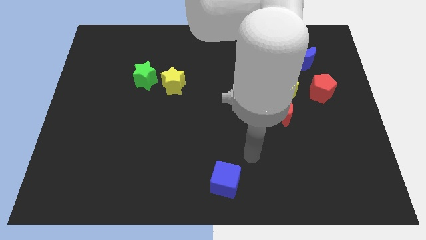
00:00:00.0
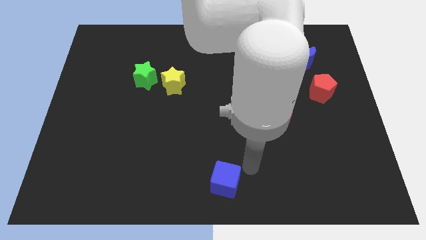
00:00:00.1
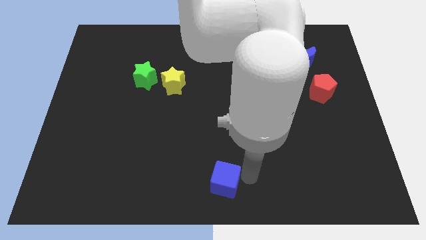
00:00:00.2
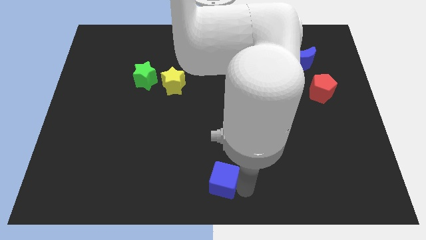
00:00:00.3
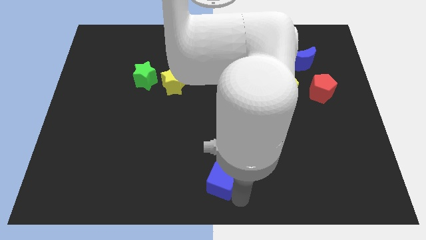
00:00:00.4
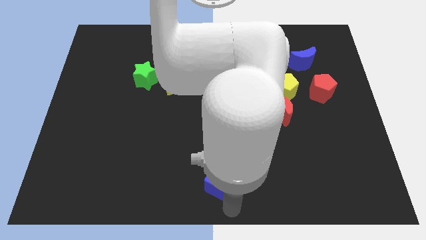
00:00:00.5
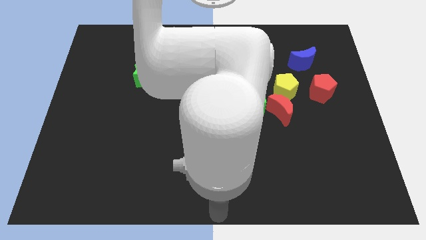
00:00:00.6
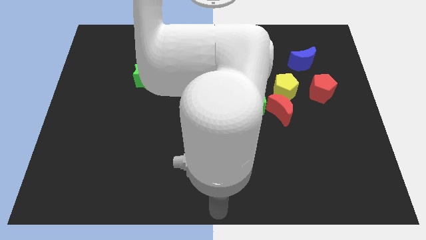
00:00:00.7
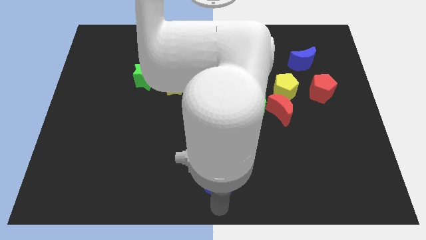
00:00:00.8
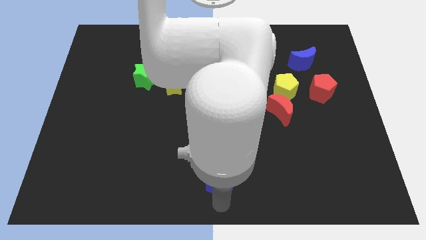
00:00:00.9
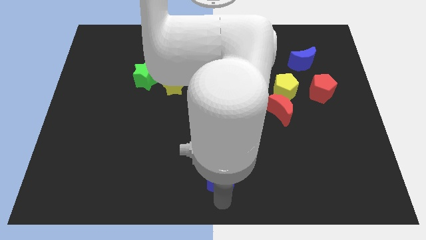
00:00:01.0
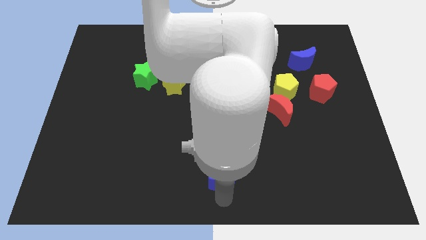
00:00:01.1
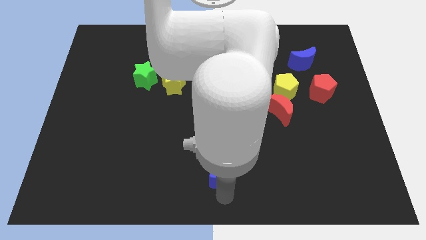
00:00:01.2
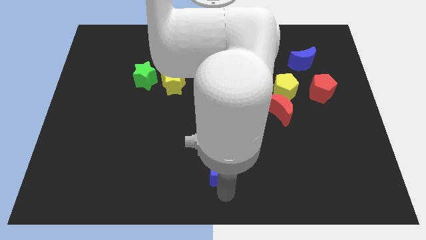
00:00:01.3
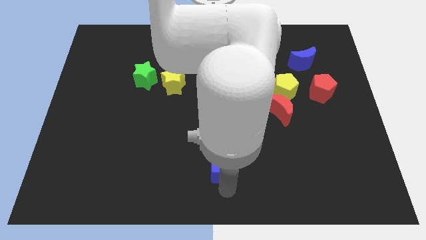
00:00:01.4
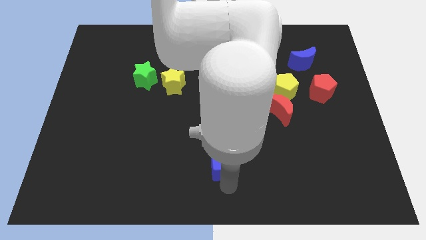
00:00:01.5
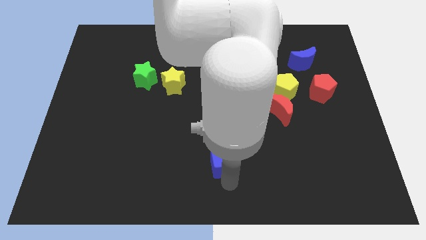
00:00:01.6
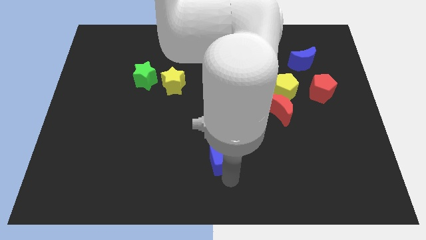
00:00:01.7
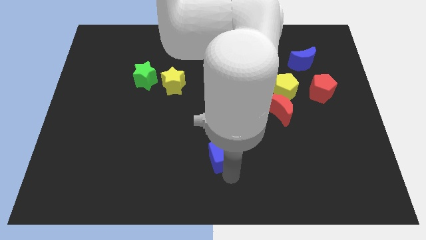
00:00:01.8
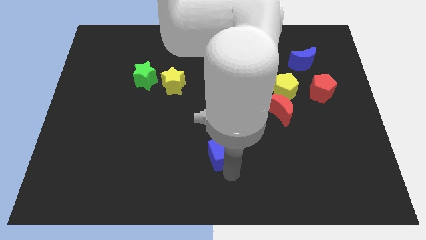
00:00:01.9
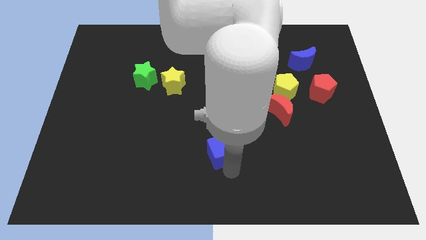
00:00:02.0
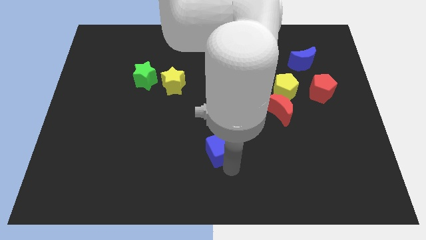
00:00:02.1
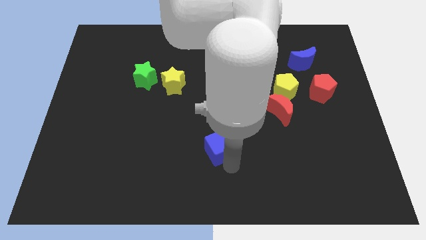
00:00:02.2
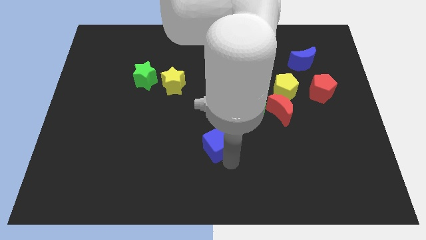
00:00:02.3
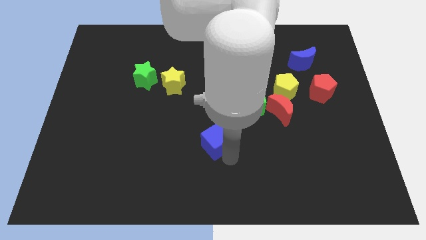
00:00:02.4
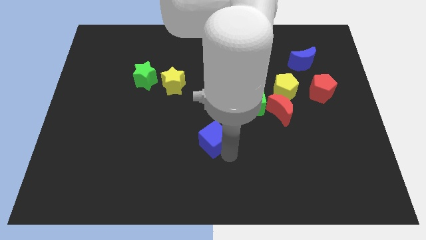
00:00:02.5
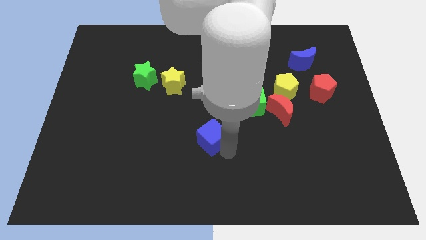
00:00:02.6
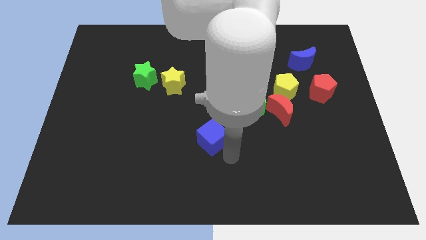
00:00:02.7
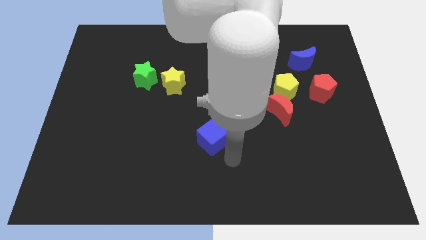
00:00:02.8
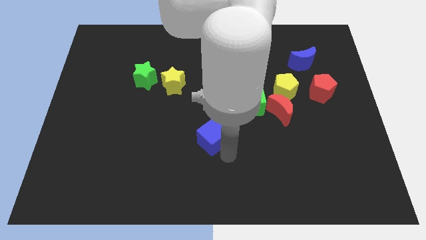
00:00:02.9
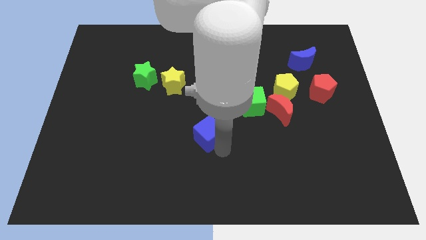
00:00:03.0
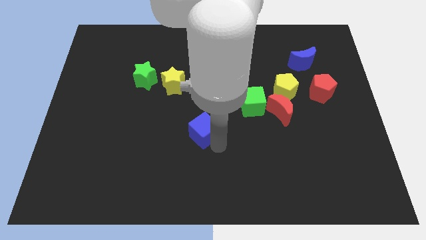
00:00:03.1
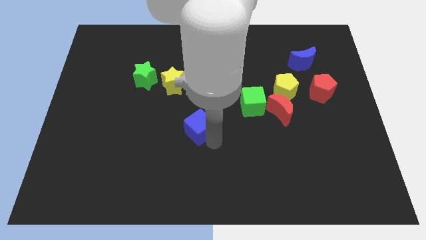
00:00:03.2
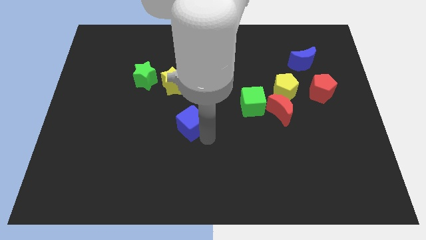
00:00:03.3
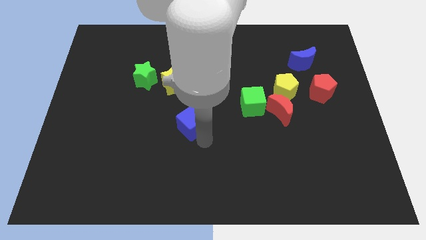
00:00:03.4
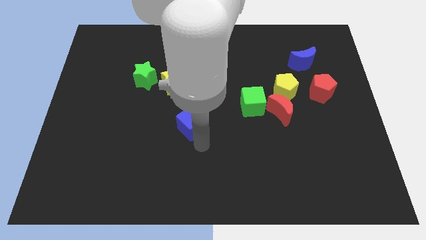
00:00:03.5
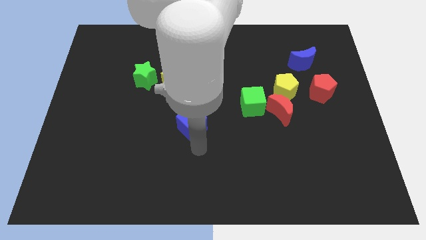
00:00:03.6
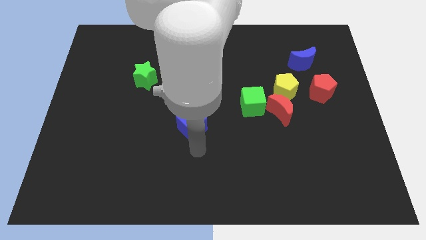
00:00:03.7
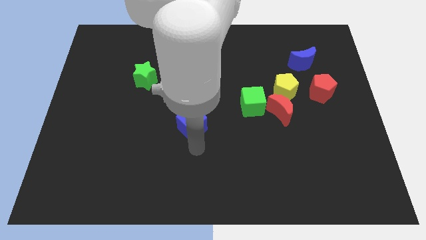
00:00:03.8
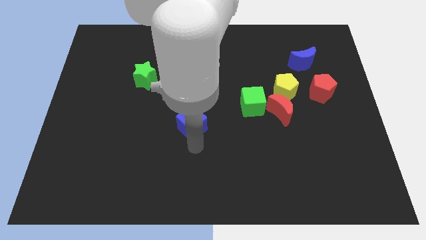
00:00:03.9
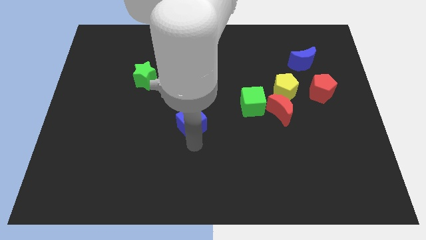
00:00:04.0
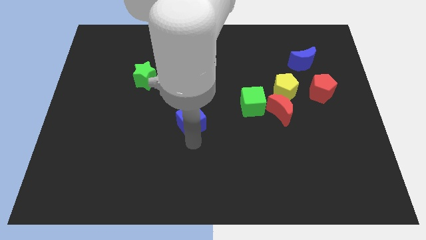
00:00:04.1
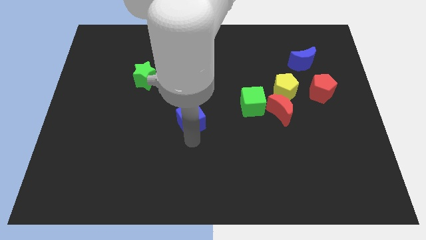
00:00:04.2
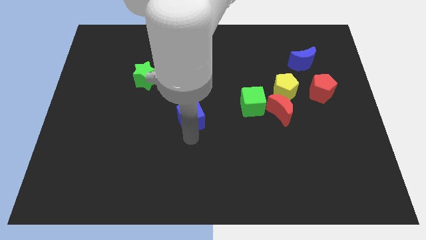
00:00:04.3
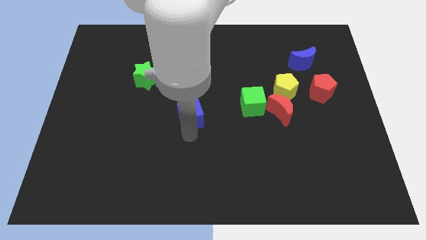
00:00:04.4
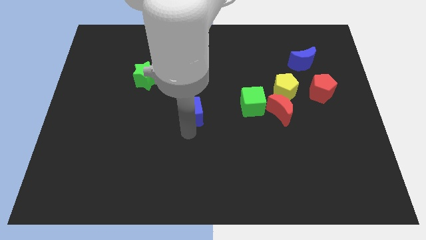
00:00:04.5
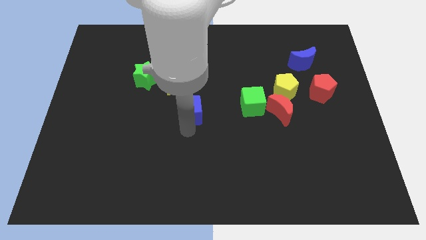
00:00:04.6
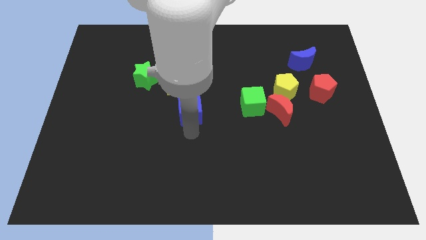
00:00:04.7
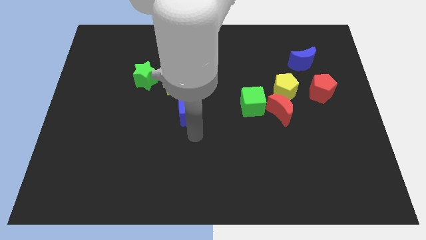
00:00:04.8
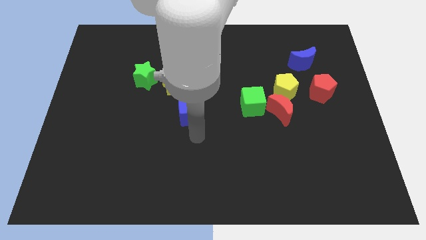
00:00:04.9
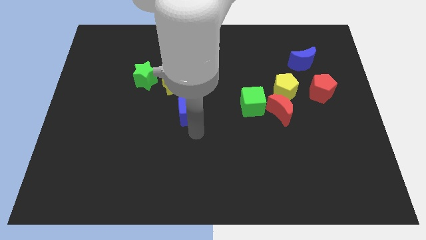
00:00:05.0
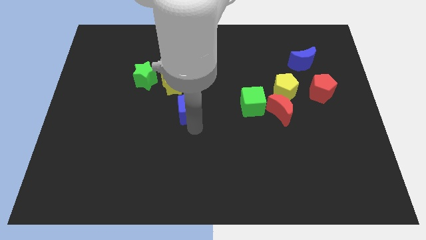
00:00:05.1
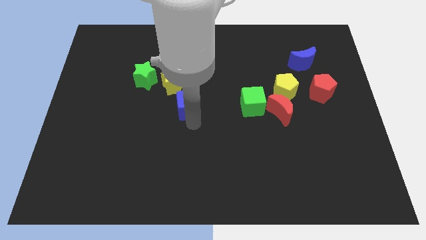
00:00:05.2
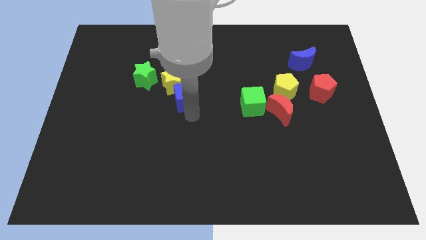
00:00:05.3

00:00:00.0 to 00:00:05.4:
put the blue cube to the yellow star
